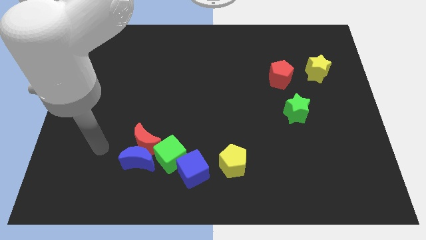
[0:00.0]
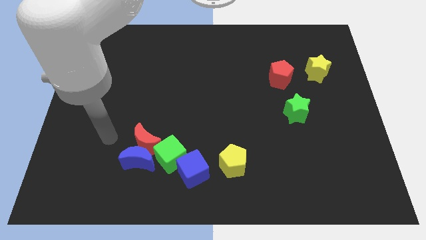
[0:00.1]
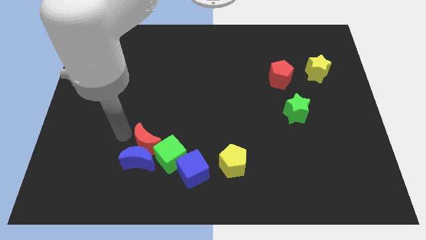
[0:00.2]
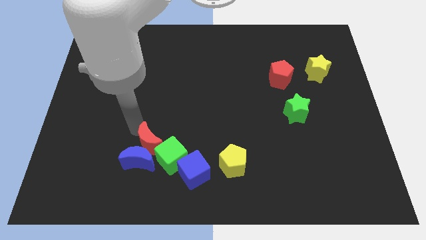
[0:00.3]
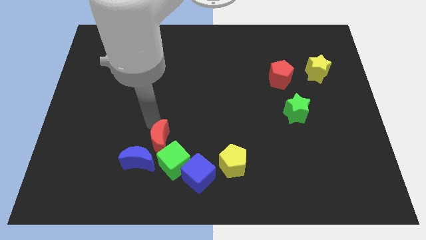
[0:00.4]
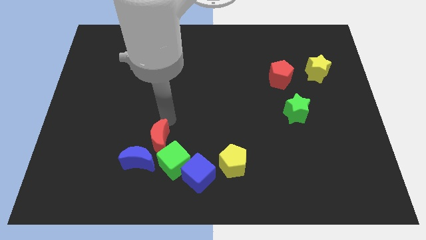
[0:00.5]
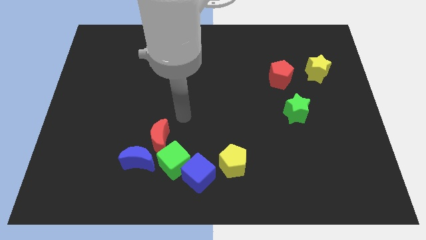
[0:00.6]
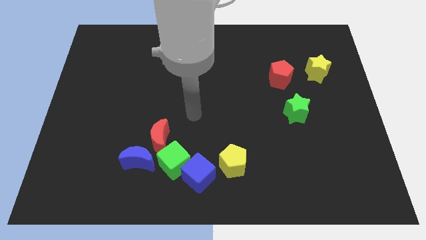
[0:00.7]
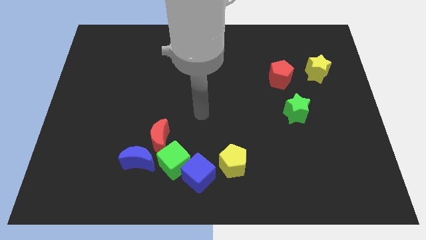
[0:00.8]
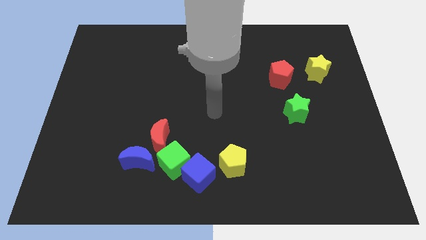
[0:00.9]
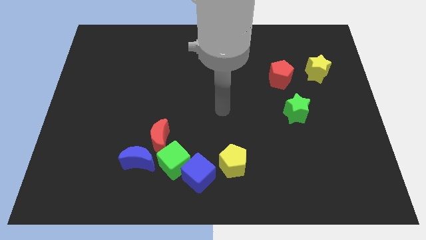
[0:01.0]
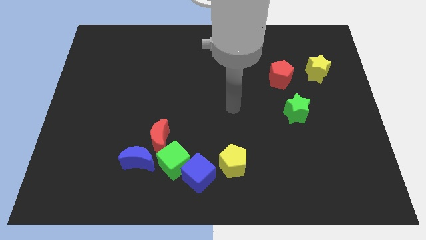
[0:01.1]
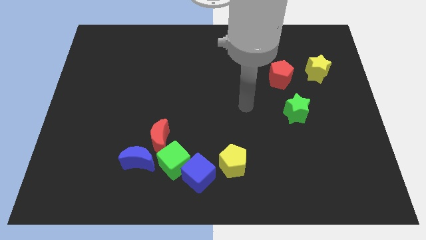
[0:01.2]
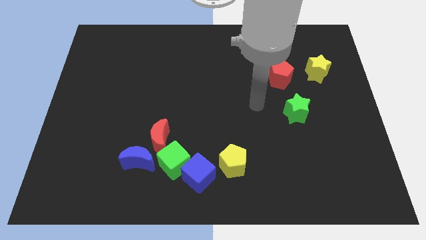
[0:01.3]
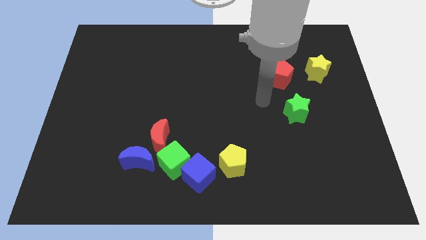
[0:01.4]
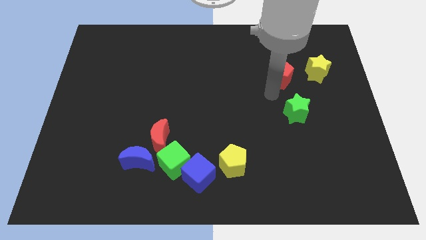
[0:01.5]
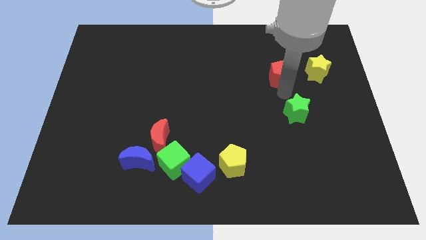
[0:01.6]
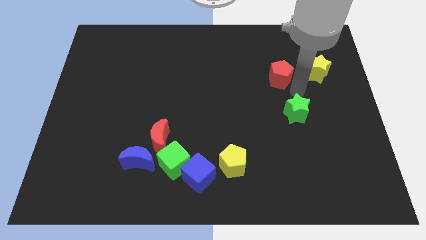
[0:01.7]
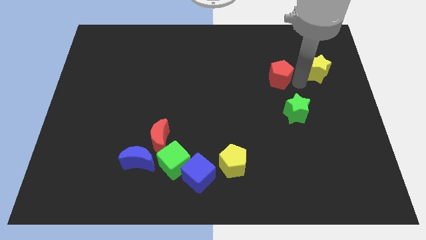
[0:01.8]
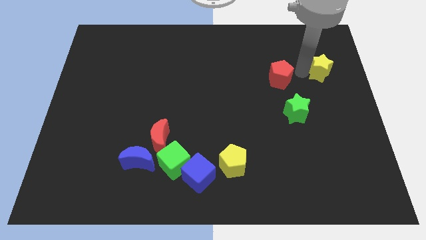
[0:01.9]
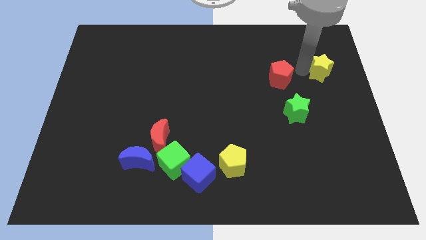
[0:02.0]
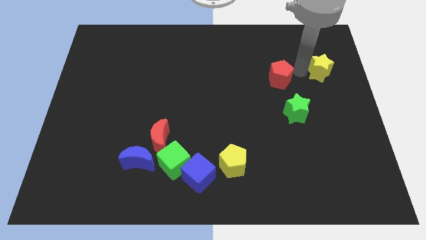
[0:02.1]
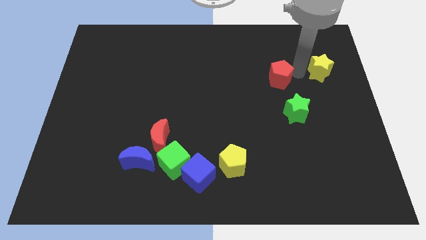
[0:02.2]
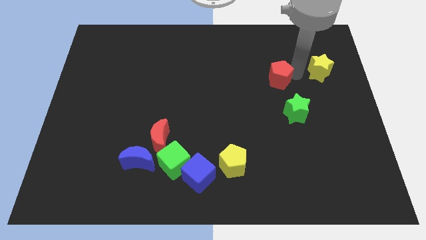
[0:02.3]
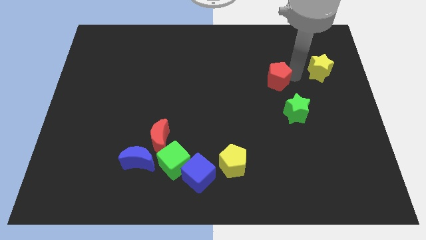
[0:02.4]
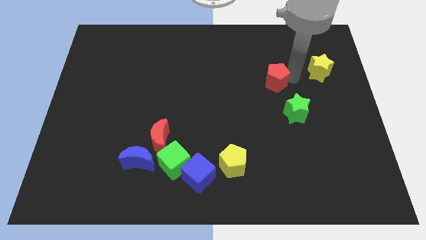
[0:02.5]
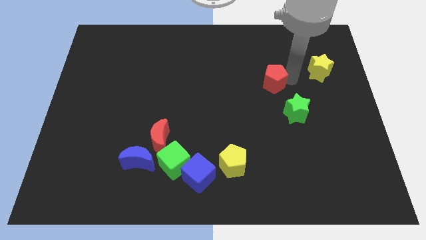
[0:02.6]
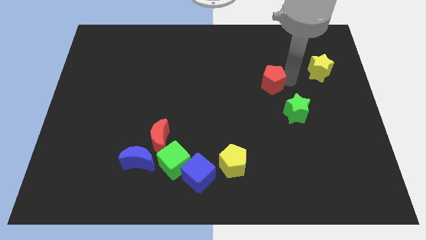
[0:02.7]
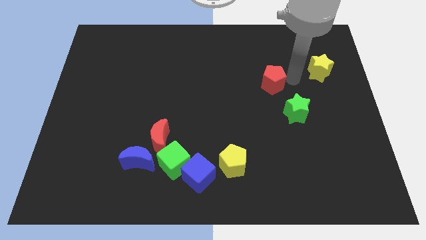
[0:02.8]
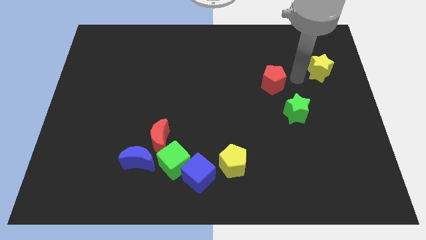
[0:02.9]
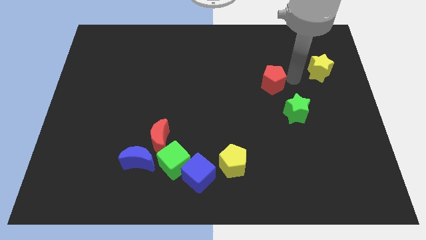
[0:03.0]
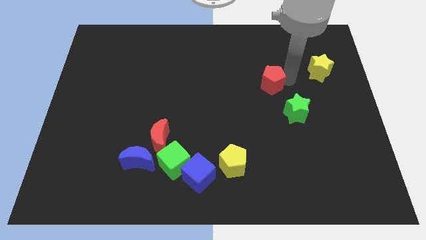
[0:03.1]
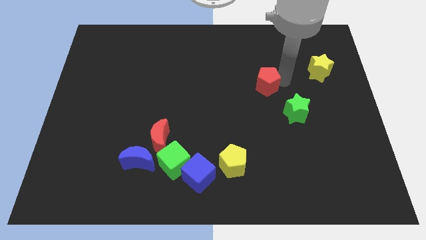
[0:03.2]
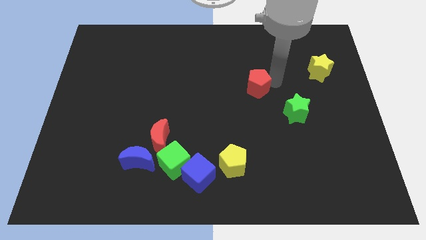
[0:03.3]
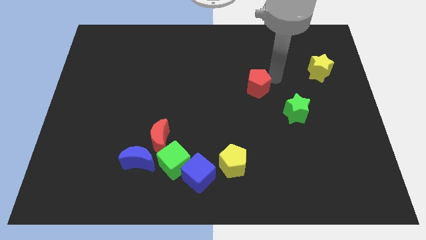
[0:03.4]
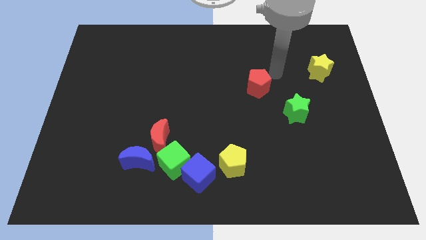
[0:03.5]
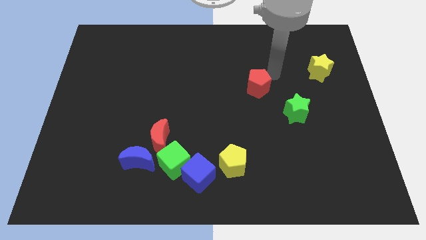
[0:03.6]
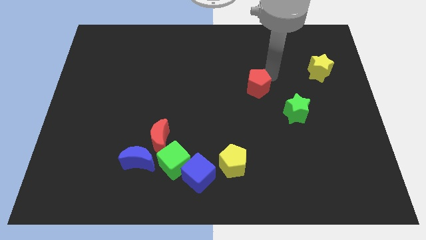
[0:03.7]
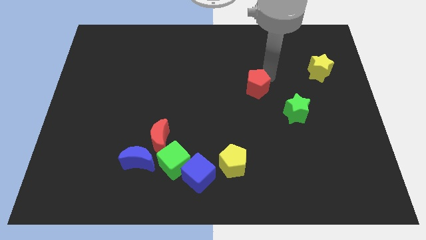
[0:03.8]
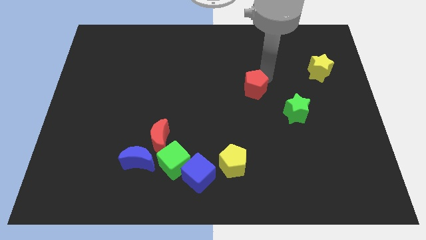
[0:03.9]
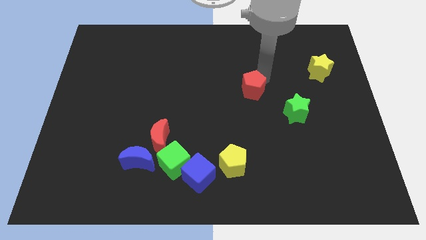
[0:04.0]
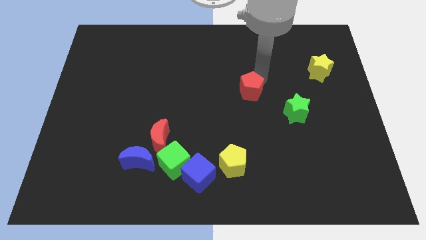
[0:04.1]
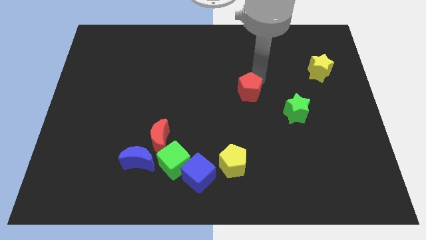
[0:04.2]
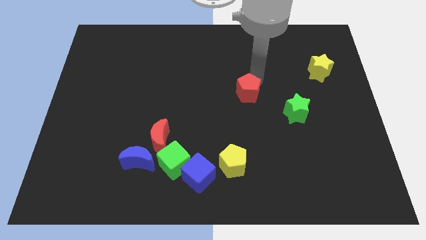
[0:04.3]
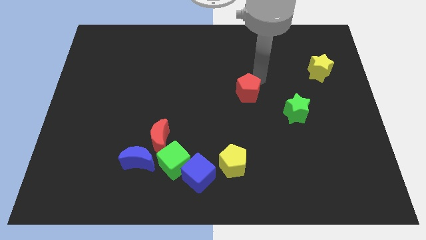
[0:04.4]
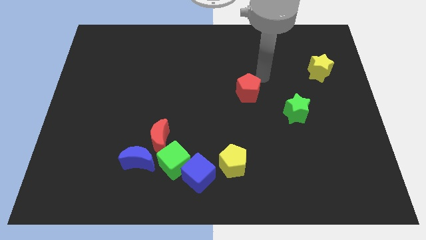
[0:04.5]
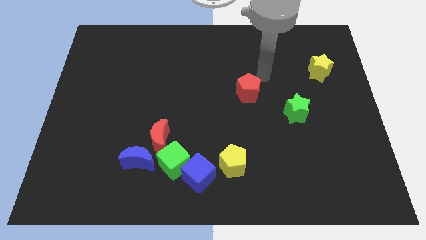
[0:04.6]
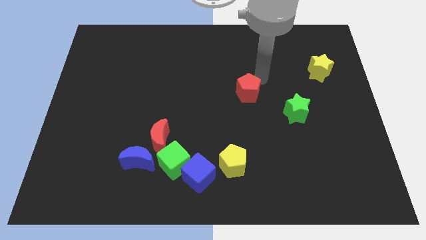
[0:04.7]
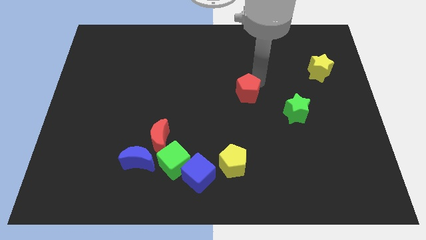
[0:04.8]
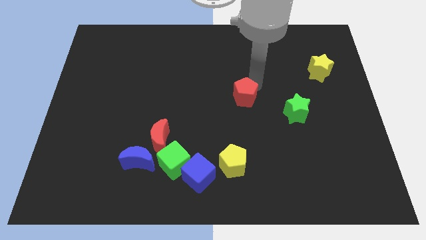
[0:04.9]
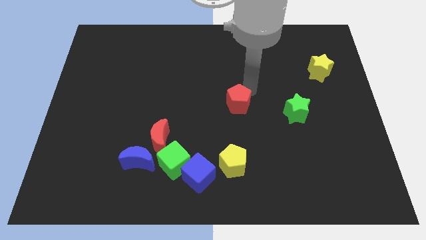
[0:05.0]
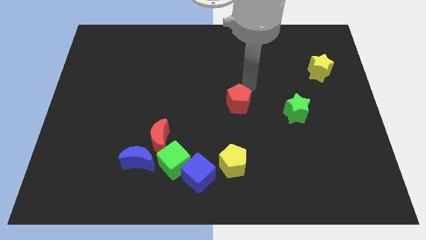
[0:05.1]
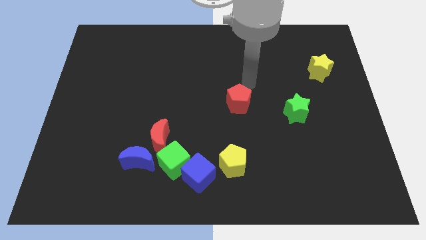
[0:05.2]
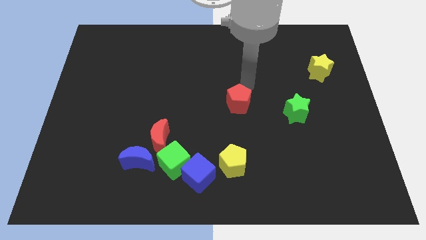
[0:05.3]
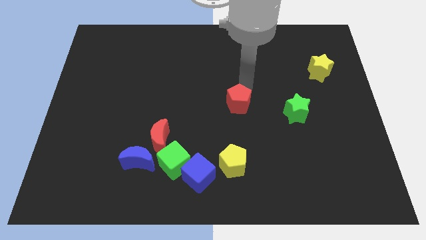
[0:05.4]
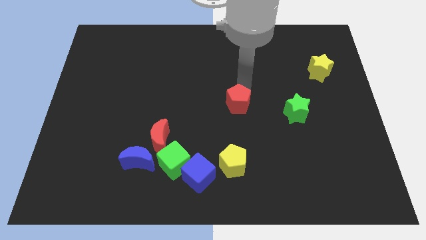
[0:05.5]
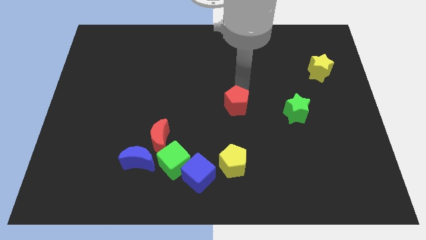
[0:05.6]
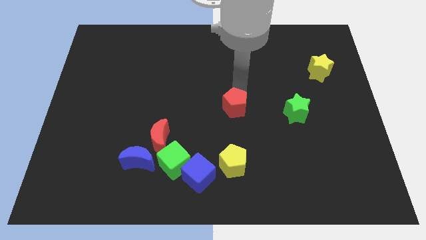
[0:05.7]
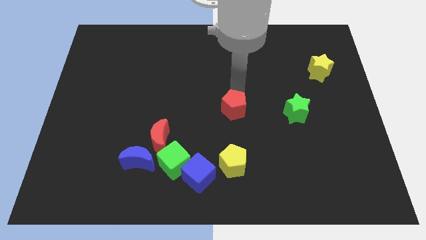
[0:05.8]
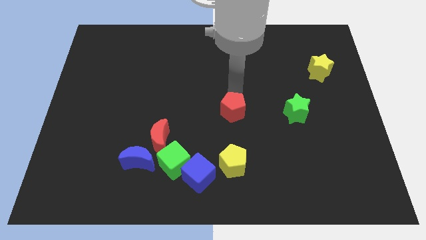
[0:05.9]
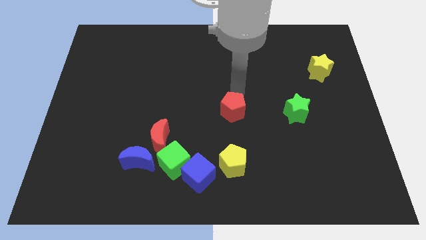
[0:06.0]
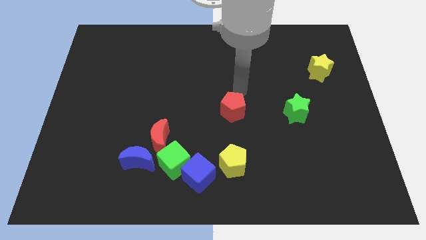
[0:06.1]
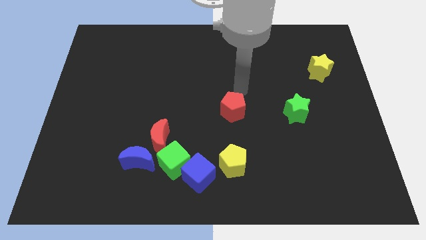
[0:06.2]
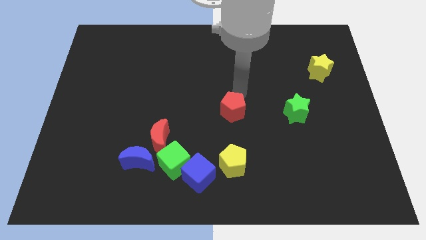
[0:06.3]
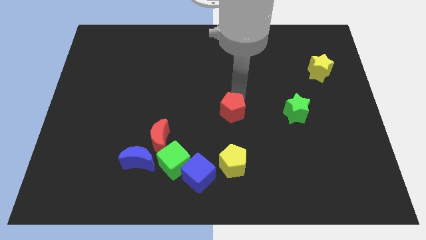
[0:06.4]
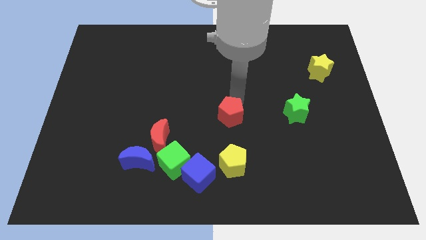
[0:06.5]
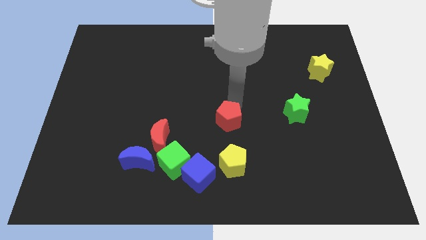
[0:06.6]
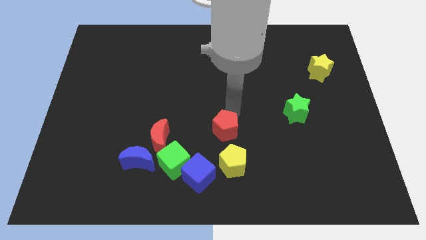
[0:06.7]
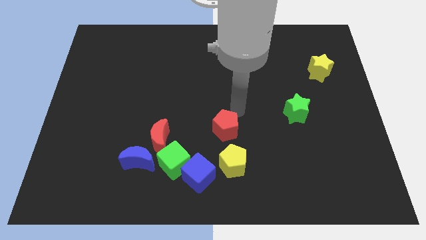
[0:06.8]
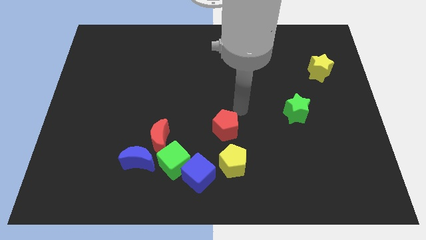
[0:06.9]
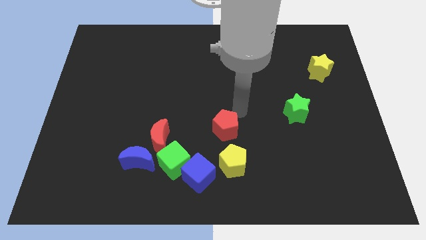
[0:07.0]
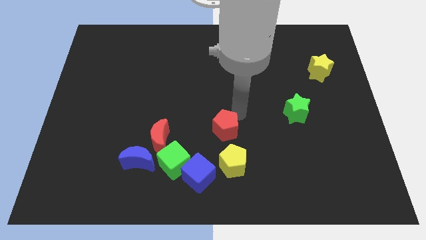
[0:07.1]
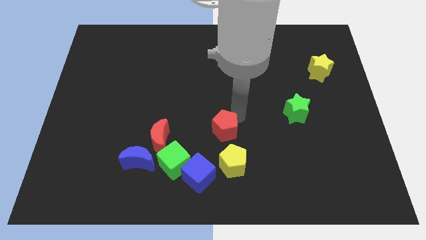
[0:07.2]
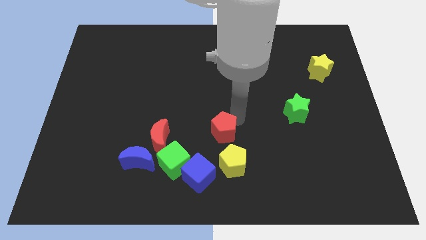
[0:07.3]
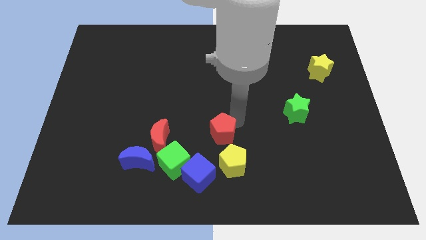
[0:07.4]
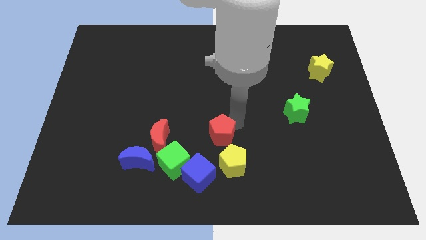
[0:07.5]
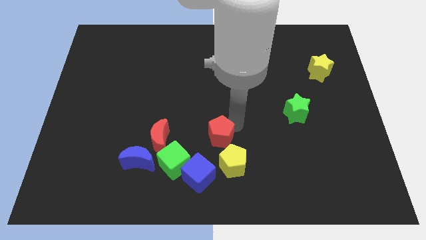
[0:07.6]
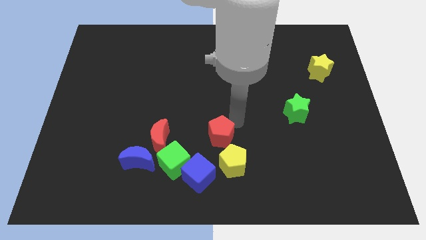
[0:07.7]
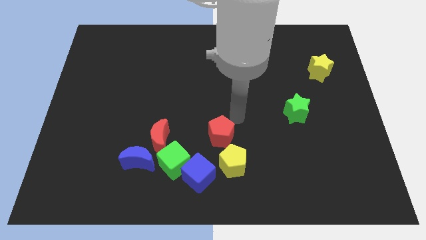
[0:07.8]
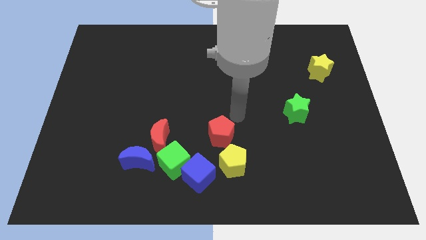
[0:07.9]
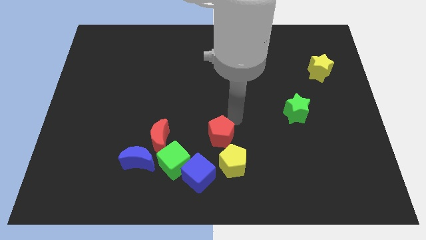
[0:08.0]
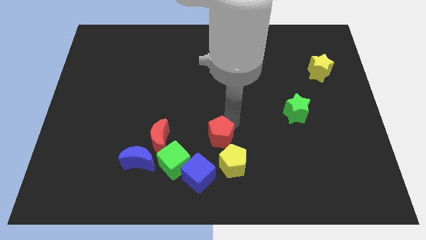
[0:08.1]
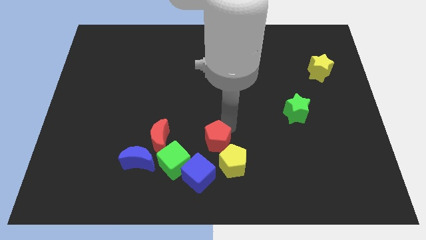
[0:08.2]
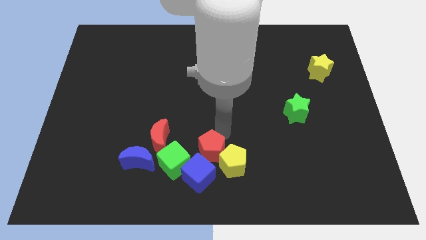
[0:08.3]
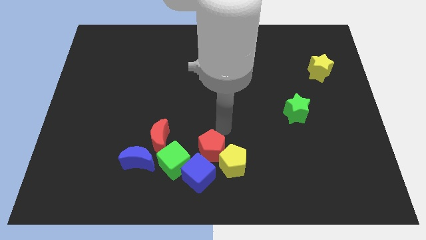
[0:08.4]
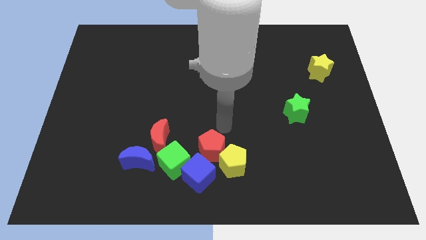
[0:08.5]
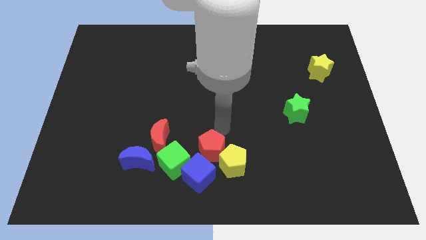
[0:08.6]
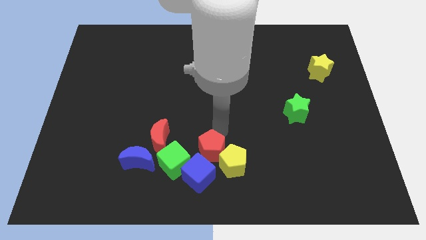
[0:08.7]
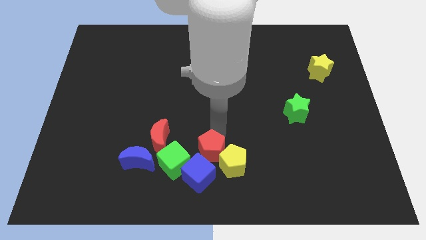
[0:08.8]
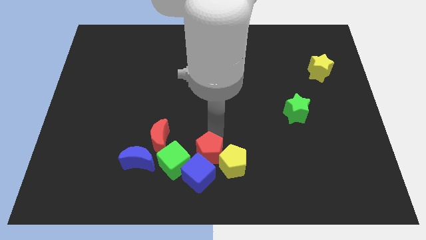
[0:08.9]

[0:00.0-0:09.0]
move the red pentagon next to the blue cube
